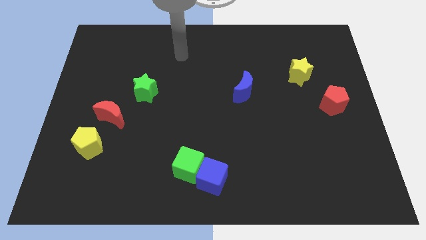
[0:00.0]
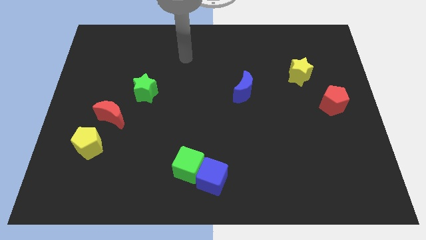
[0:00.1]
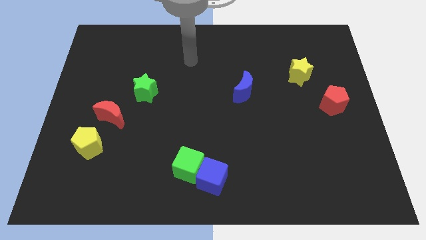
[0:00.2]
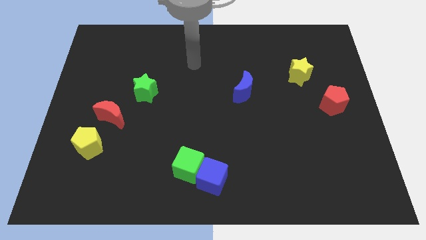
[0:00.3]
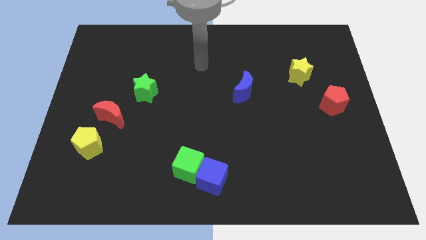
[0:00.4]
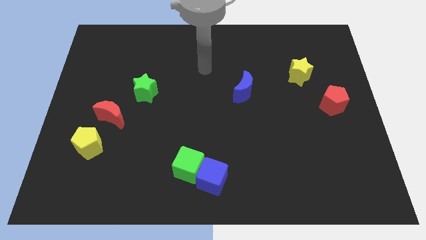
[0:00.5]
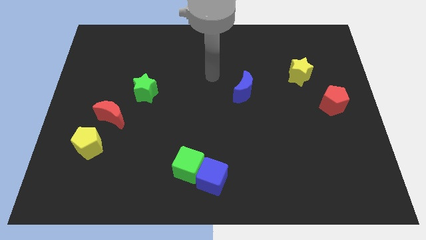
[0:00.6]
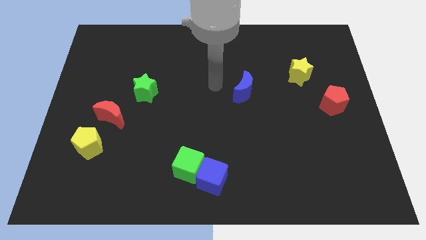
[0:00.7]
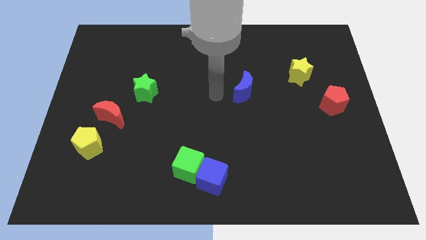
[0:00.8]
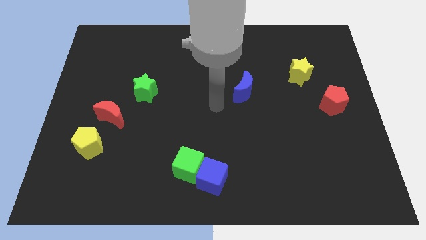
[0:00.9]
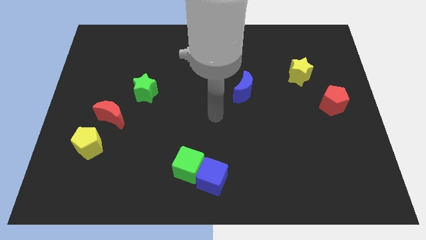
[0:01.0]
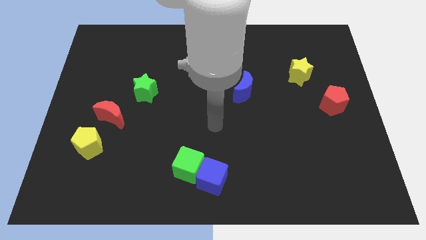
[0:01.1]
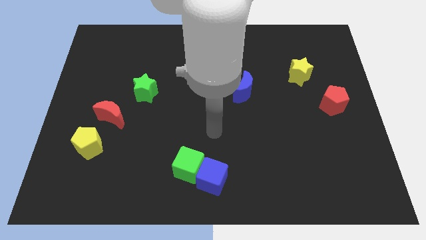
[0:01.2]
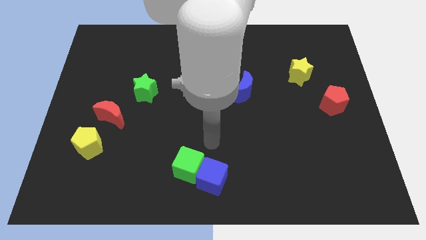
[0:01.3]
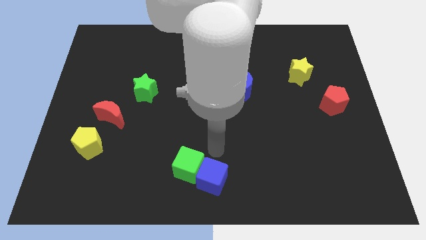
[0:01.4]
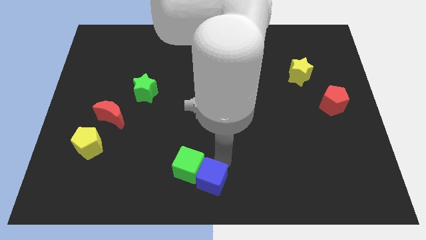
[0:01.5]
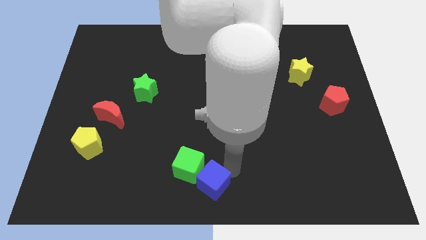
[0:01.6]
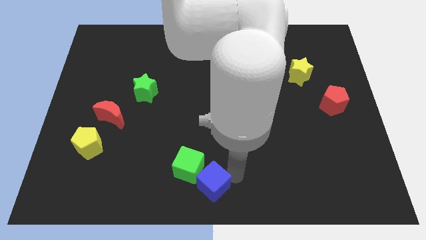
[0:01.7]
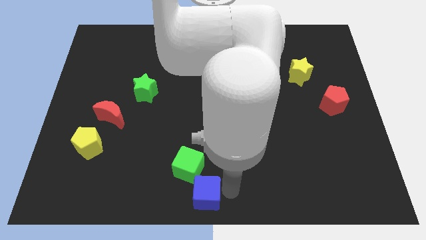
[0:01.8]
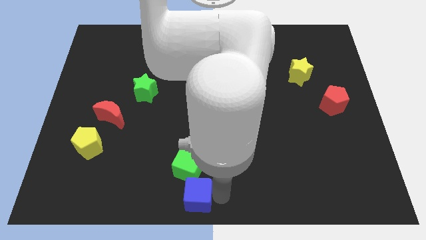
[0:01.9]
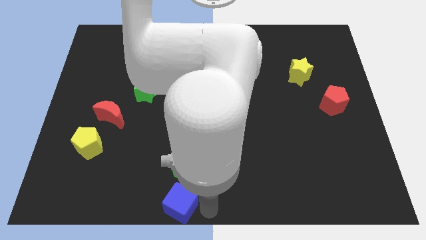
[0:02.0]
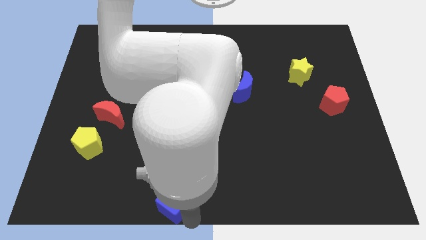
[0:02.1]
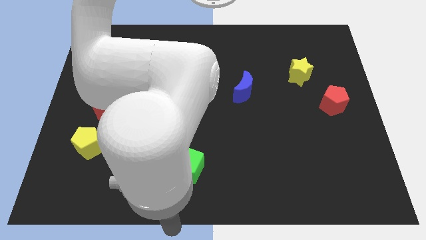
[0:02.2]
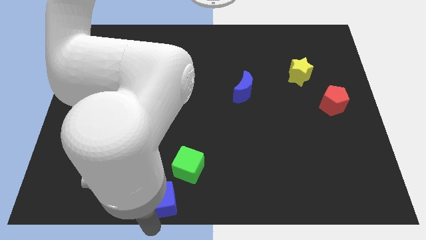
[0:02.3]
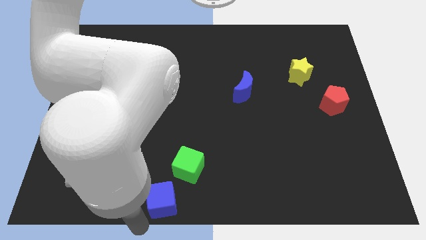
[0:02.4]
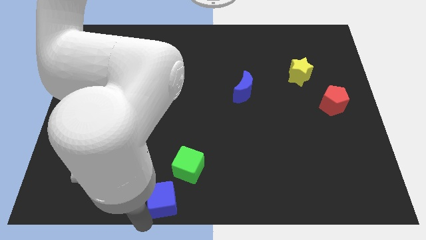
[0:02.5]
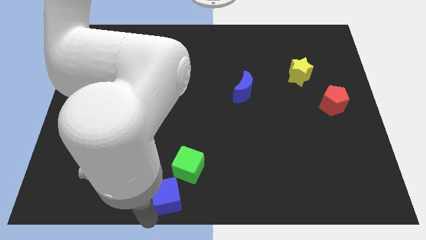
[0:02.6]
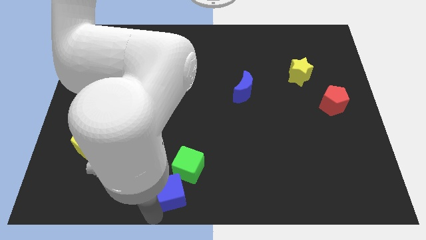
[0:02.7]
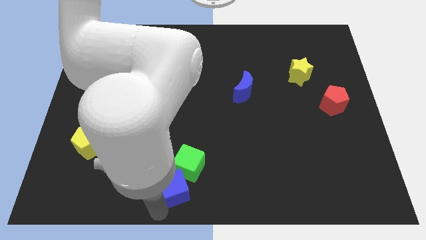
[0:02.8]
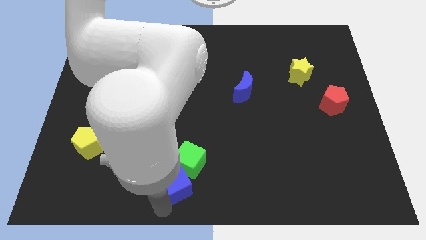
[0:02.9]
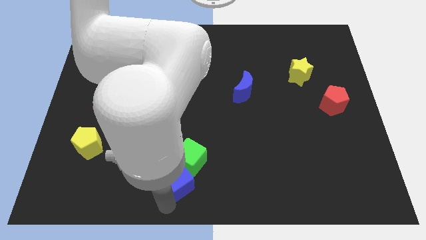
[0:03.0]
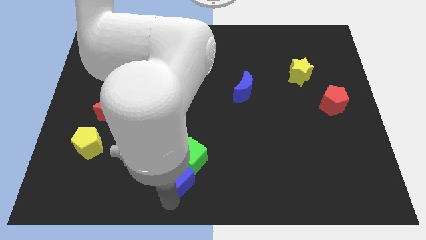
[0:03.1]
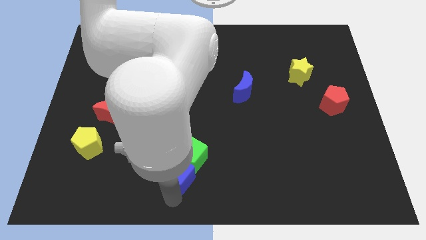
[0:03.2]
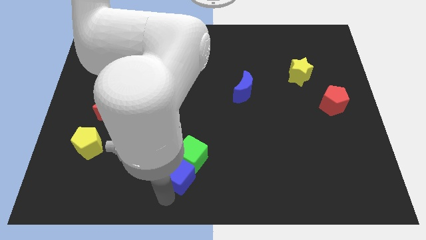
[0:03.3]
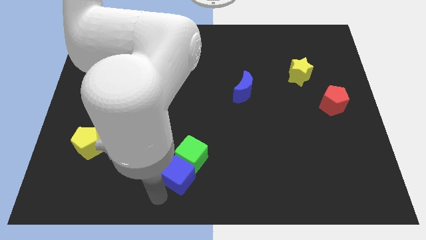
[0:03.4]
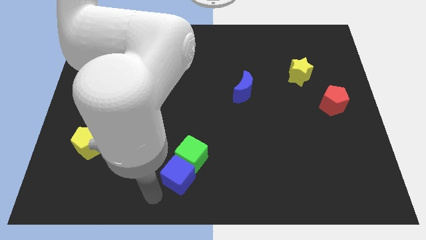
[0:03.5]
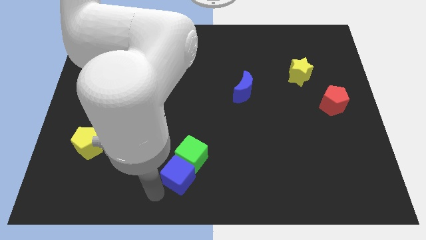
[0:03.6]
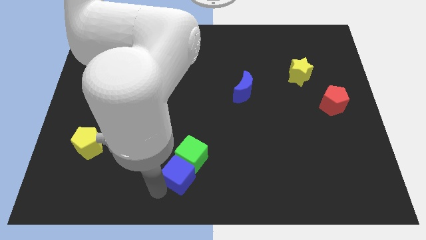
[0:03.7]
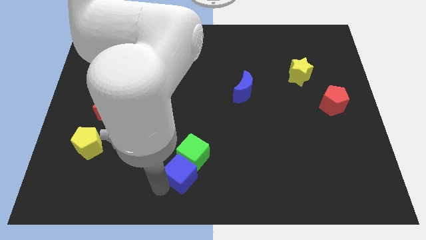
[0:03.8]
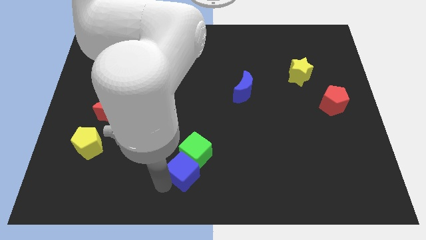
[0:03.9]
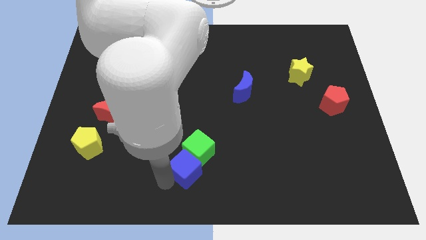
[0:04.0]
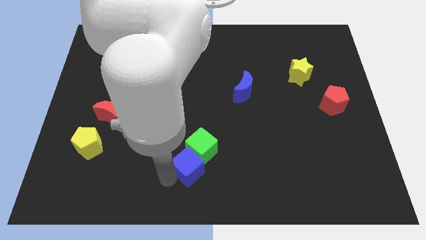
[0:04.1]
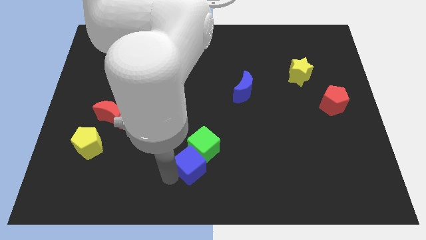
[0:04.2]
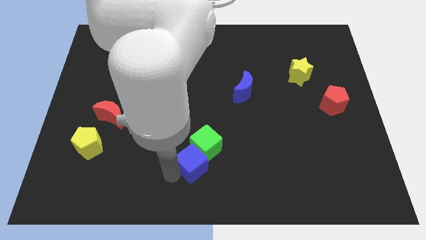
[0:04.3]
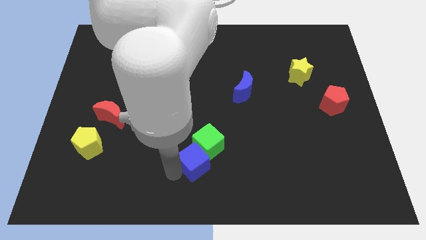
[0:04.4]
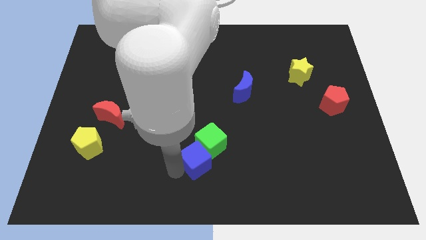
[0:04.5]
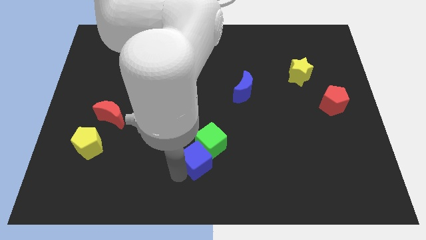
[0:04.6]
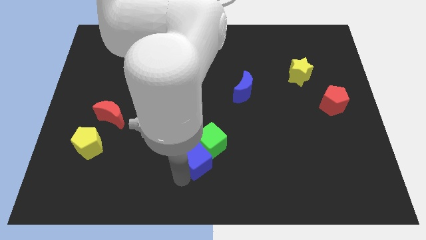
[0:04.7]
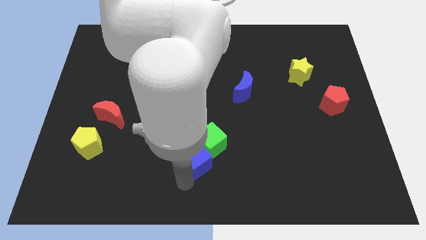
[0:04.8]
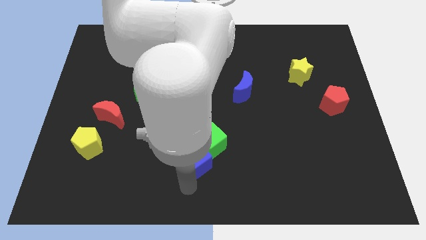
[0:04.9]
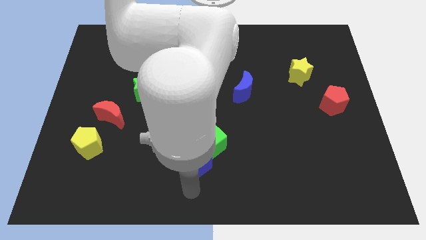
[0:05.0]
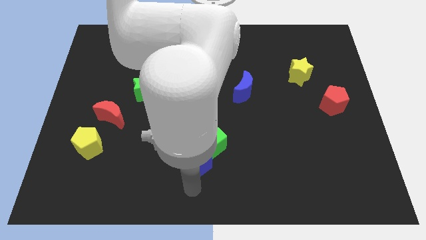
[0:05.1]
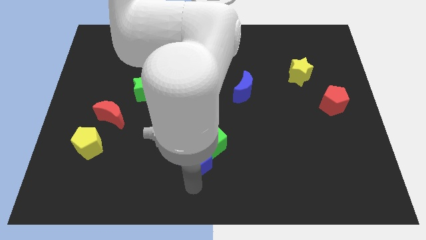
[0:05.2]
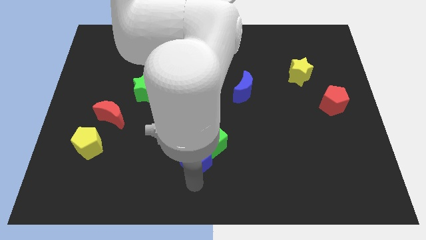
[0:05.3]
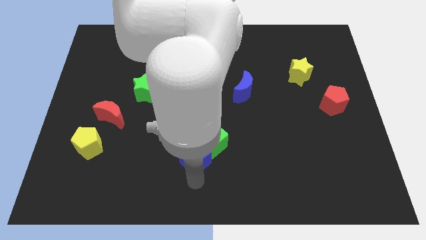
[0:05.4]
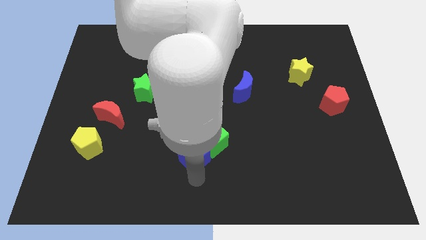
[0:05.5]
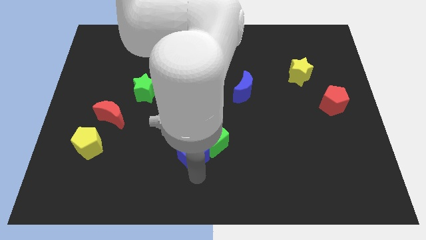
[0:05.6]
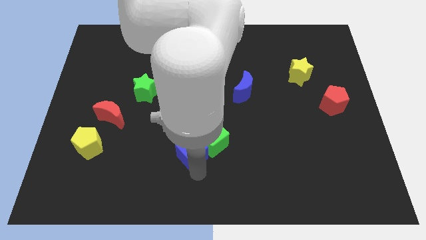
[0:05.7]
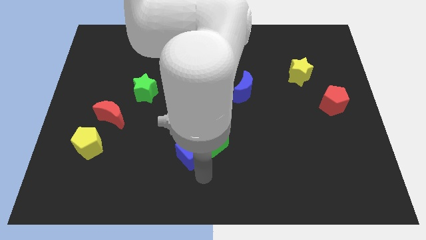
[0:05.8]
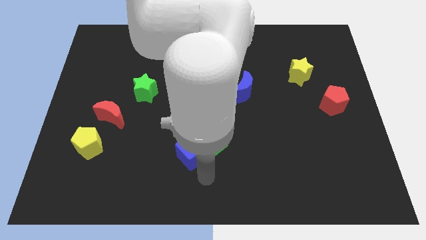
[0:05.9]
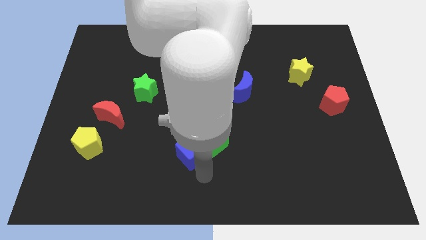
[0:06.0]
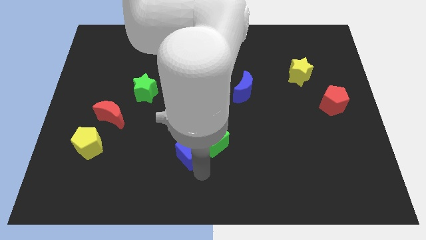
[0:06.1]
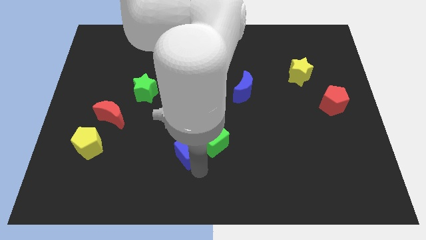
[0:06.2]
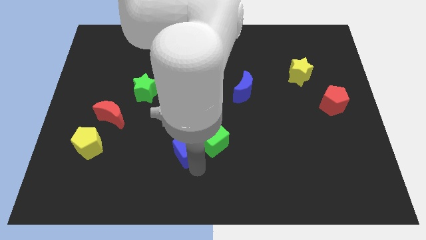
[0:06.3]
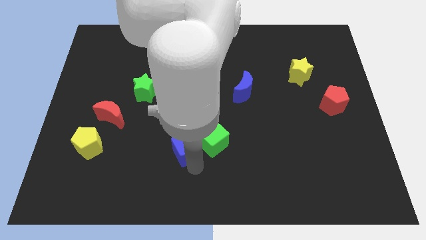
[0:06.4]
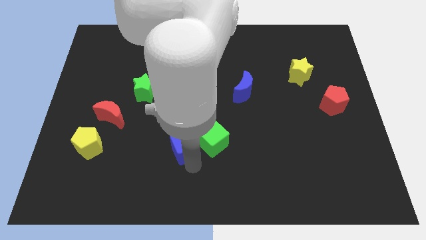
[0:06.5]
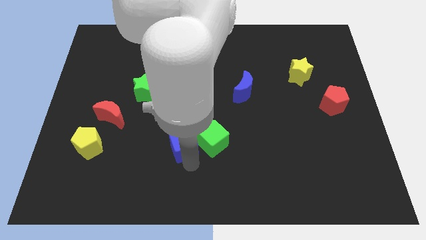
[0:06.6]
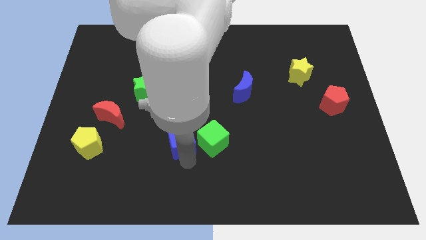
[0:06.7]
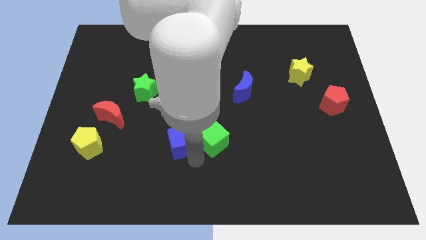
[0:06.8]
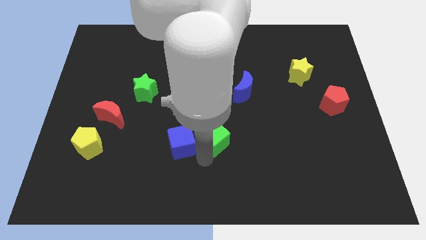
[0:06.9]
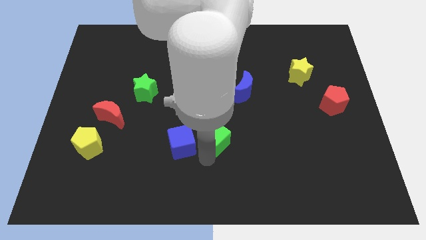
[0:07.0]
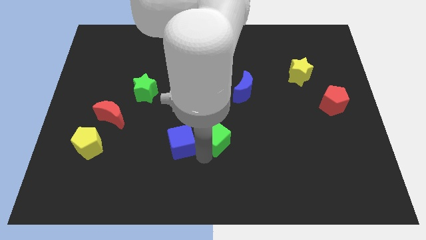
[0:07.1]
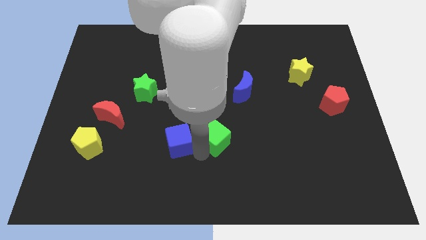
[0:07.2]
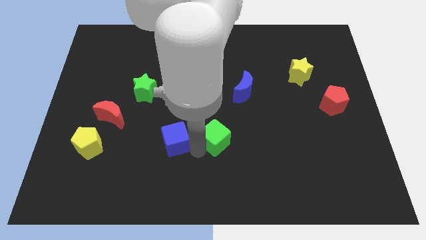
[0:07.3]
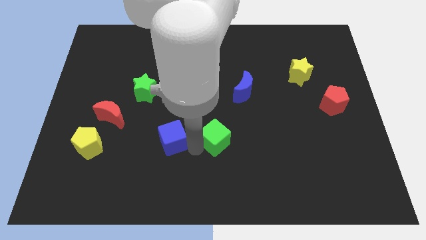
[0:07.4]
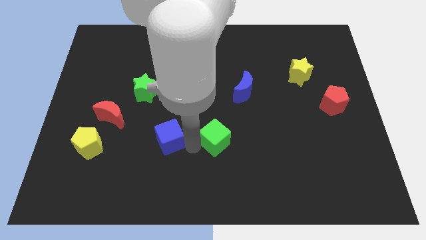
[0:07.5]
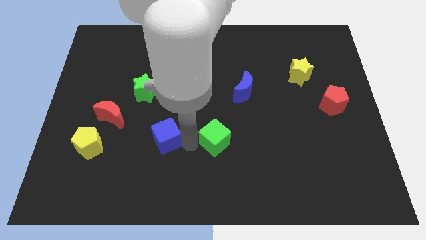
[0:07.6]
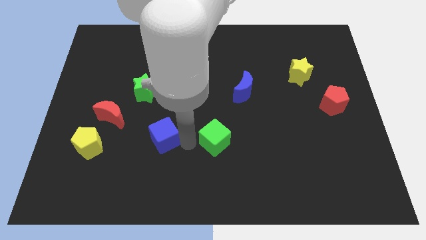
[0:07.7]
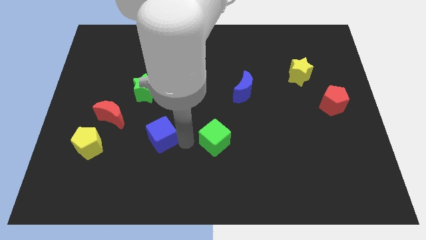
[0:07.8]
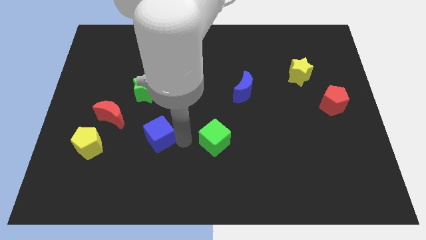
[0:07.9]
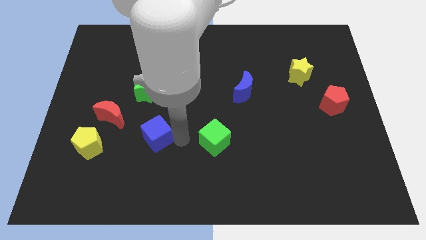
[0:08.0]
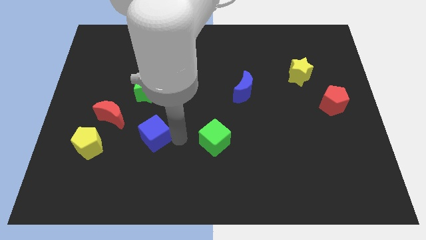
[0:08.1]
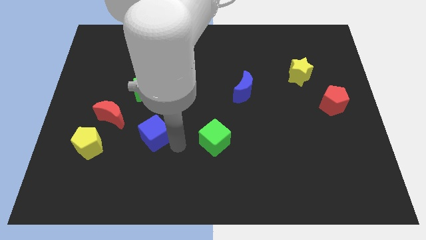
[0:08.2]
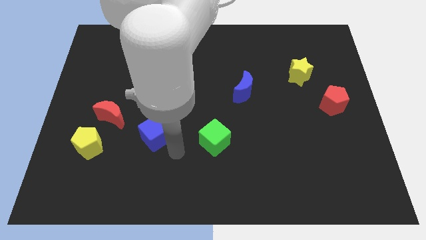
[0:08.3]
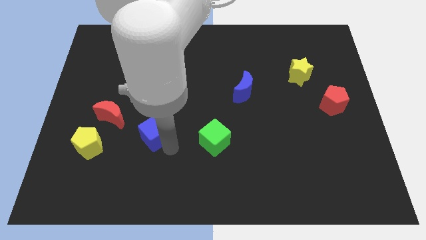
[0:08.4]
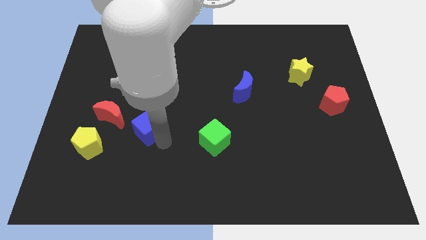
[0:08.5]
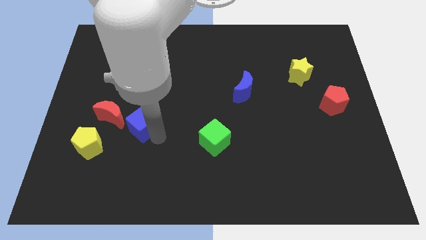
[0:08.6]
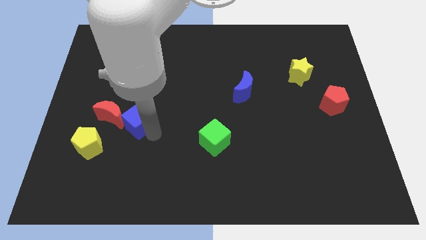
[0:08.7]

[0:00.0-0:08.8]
move the blue cube to the top right of the yellow pentagon
